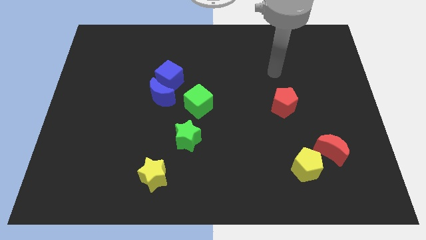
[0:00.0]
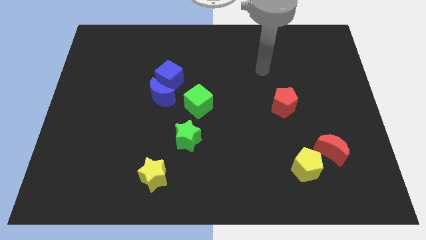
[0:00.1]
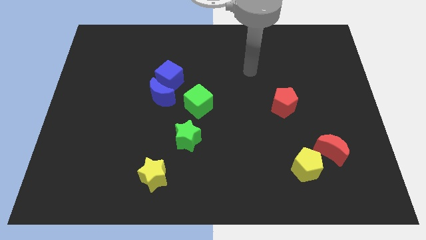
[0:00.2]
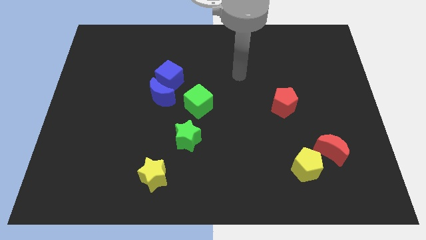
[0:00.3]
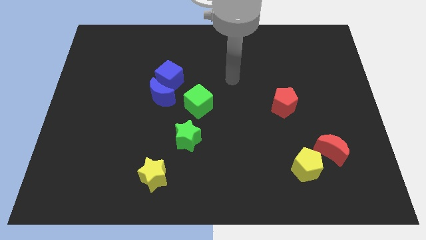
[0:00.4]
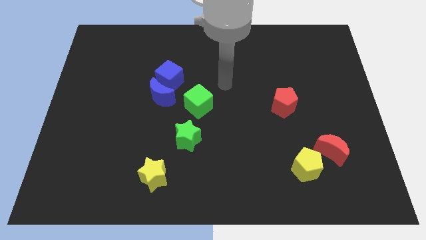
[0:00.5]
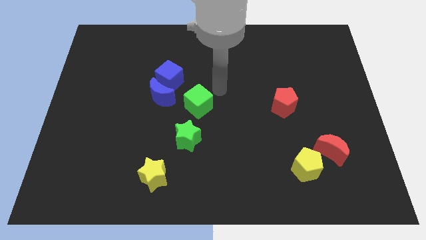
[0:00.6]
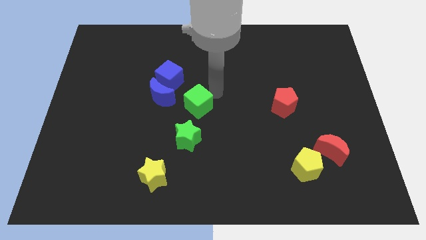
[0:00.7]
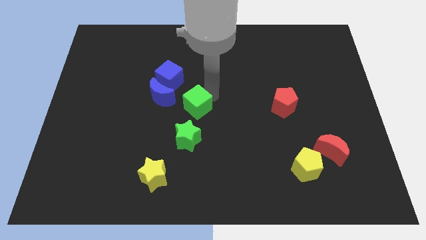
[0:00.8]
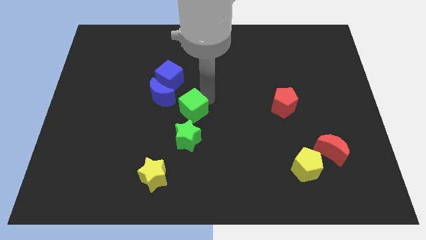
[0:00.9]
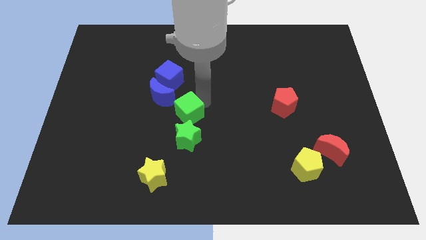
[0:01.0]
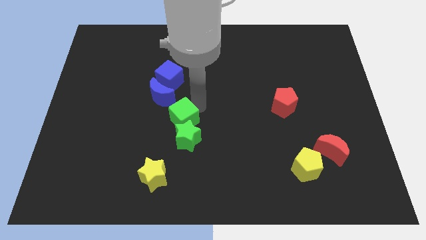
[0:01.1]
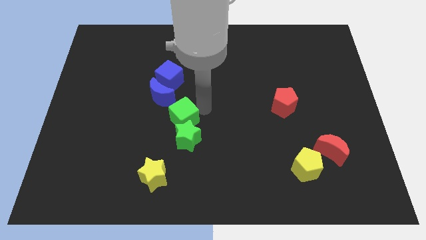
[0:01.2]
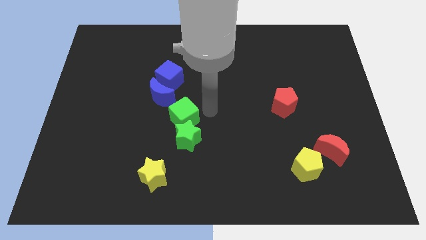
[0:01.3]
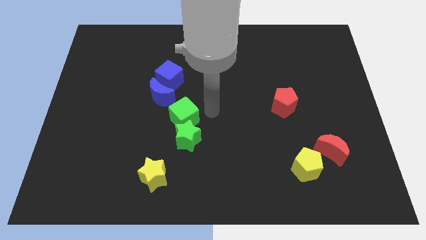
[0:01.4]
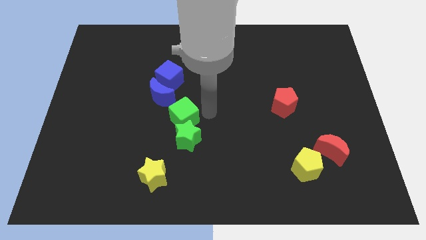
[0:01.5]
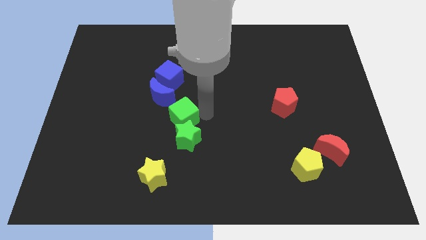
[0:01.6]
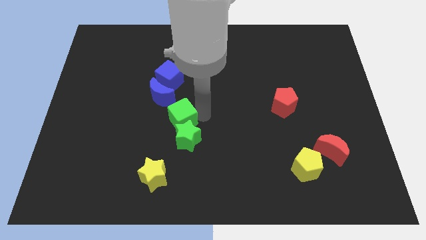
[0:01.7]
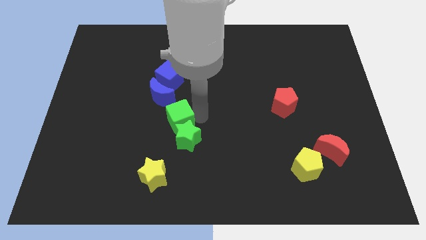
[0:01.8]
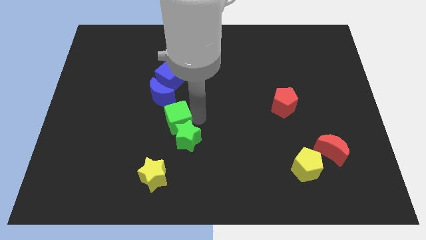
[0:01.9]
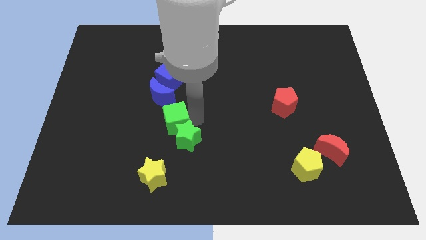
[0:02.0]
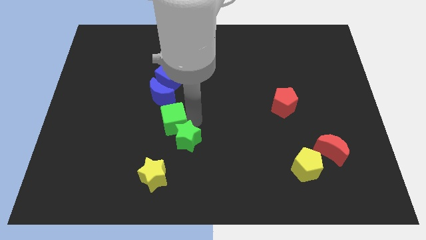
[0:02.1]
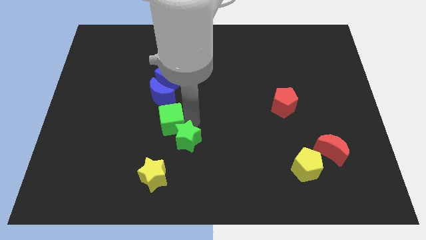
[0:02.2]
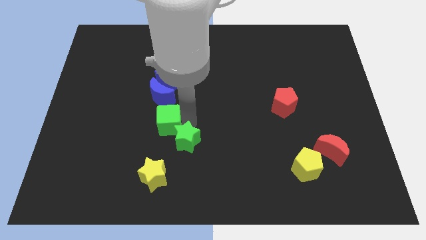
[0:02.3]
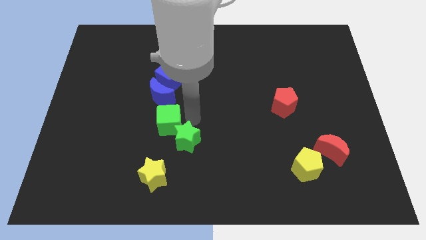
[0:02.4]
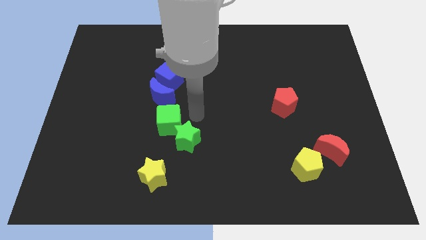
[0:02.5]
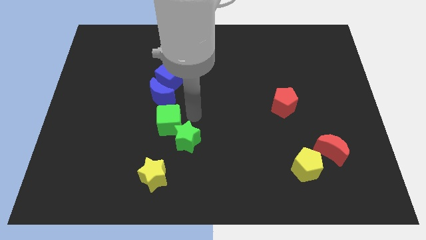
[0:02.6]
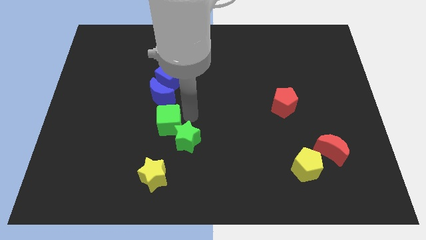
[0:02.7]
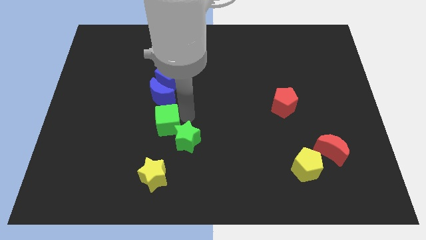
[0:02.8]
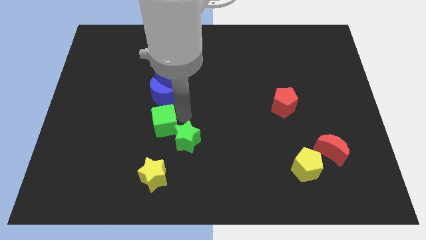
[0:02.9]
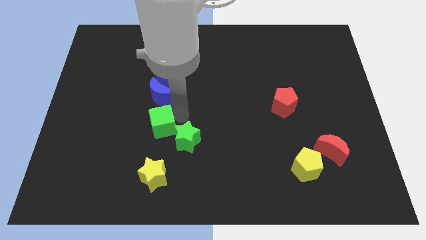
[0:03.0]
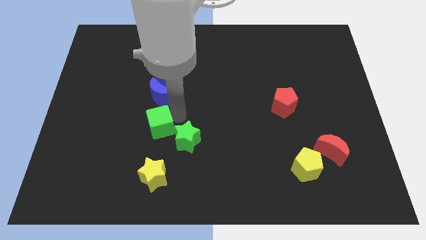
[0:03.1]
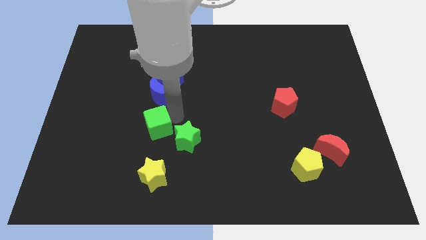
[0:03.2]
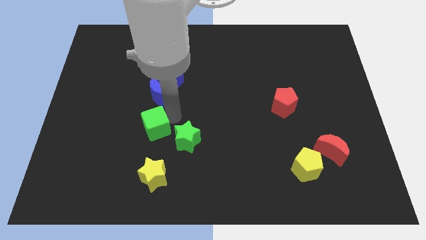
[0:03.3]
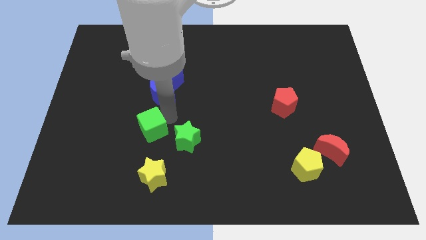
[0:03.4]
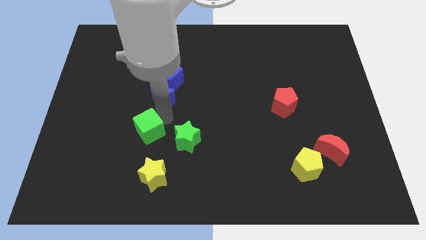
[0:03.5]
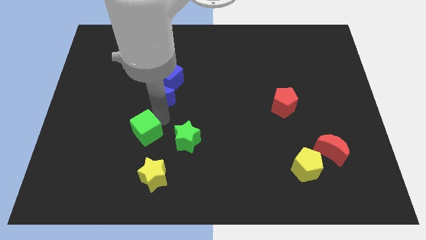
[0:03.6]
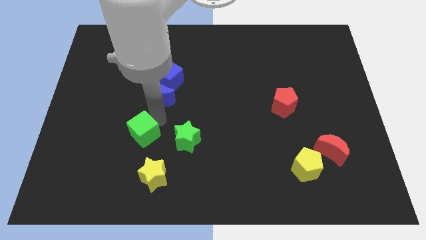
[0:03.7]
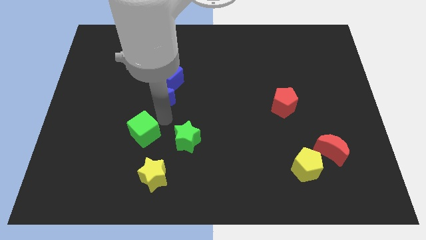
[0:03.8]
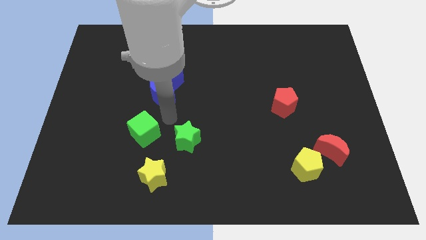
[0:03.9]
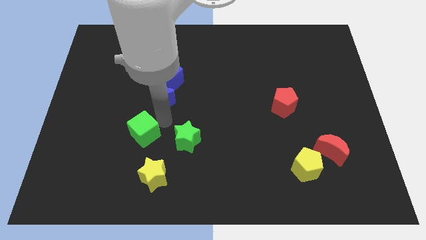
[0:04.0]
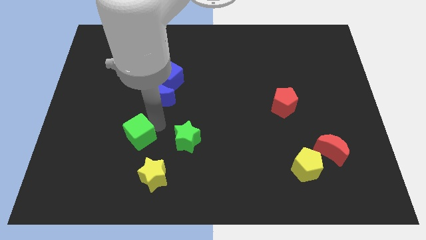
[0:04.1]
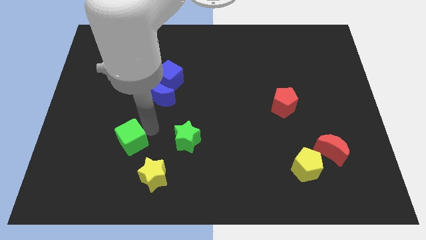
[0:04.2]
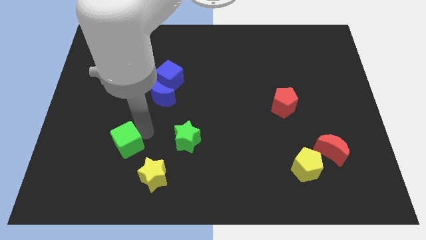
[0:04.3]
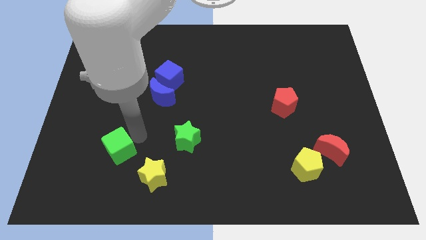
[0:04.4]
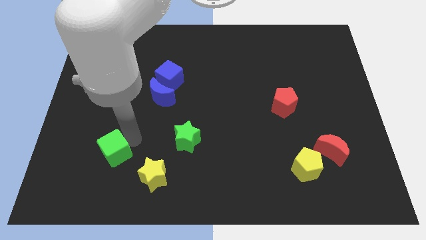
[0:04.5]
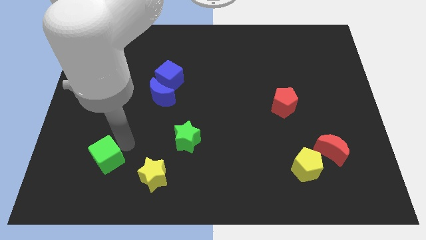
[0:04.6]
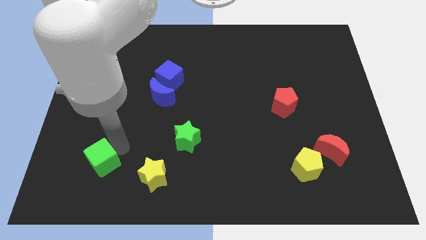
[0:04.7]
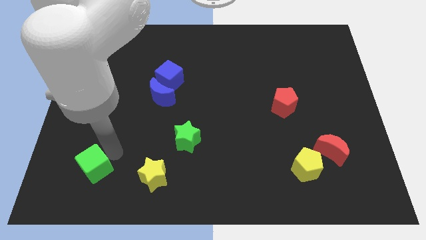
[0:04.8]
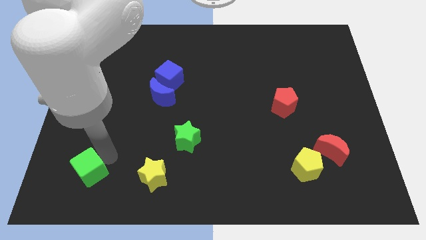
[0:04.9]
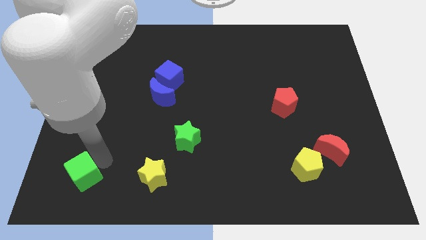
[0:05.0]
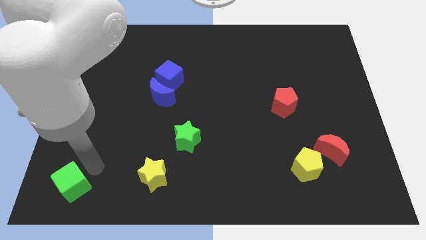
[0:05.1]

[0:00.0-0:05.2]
slide the green cube to the bottom left of the board

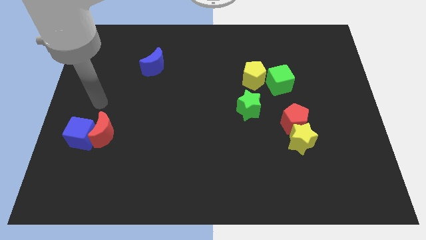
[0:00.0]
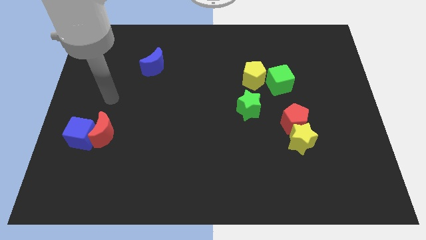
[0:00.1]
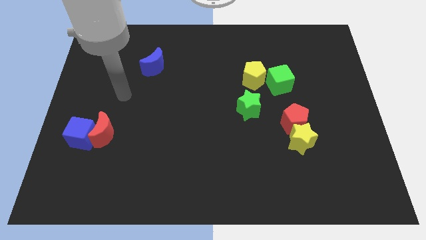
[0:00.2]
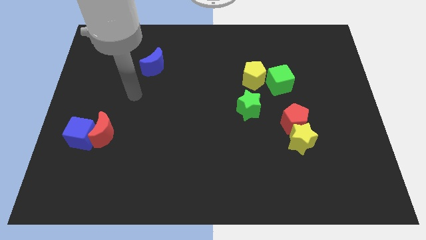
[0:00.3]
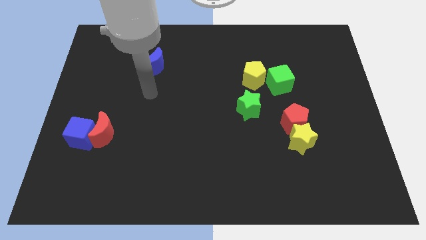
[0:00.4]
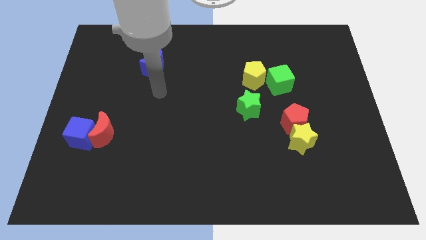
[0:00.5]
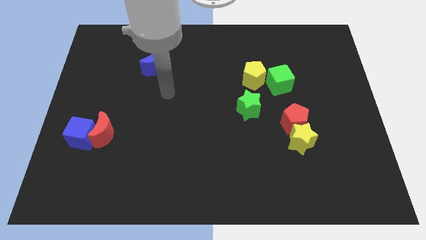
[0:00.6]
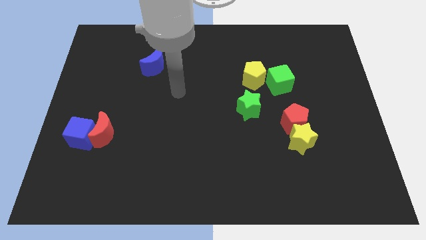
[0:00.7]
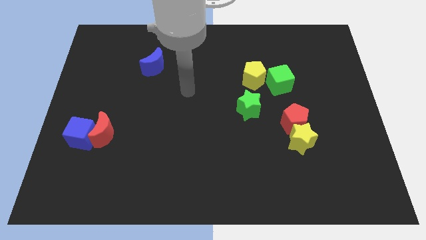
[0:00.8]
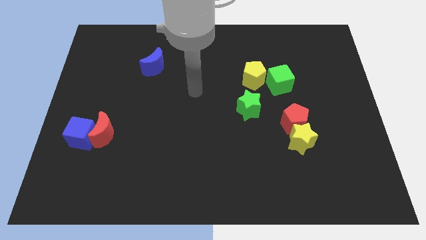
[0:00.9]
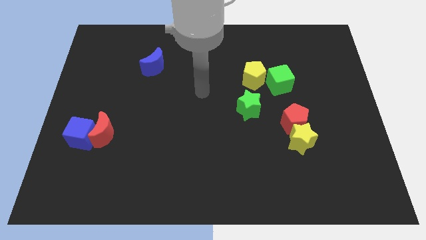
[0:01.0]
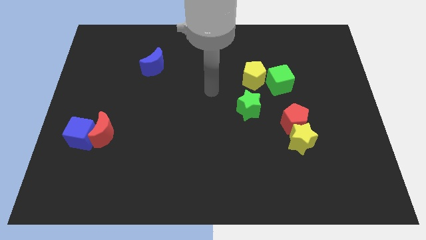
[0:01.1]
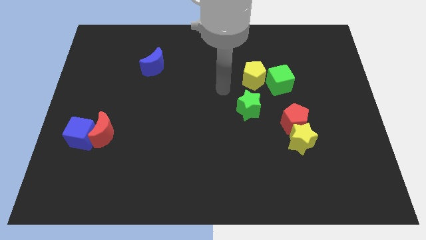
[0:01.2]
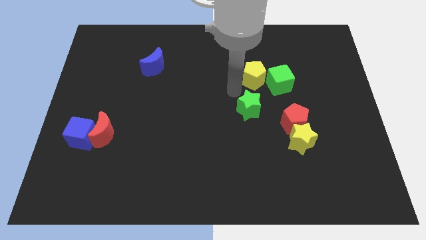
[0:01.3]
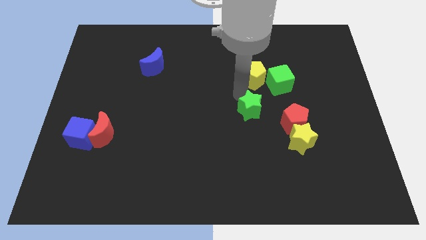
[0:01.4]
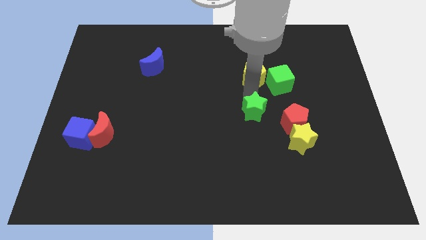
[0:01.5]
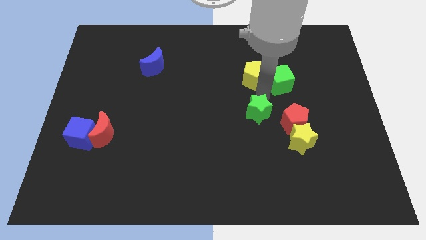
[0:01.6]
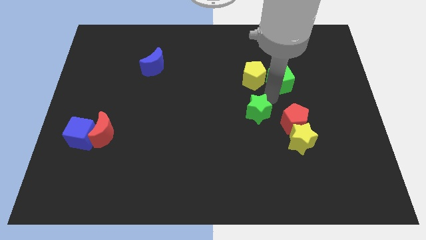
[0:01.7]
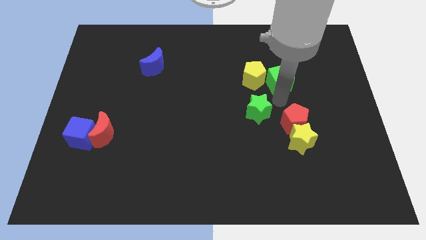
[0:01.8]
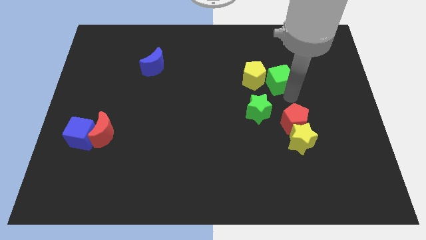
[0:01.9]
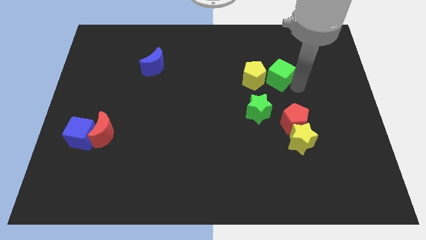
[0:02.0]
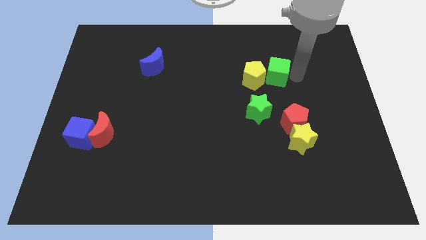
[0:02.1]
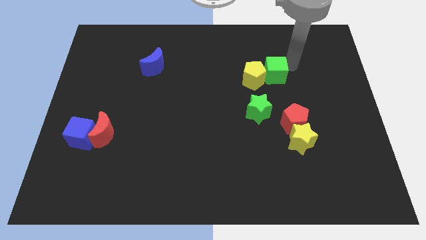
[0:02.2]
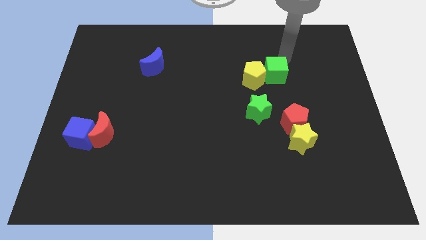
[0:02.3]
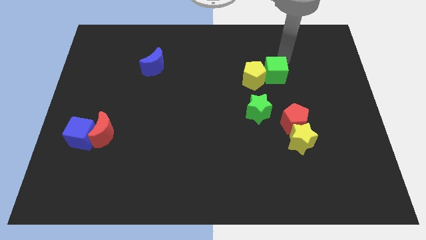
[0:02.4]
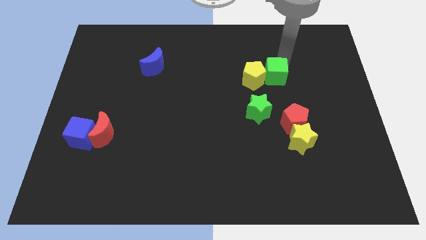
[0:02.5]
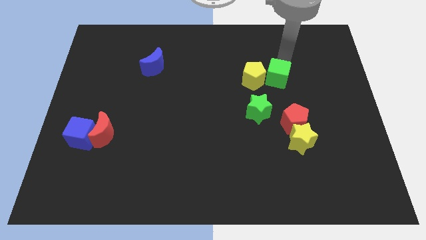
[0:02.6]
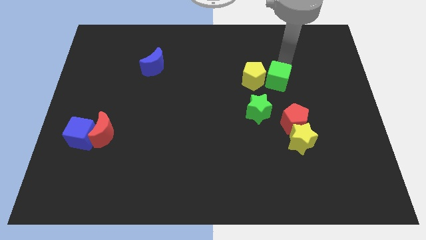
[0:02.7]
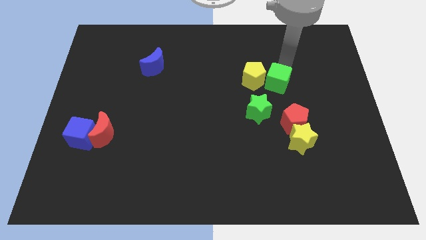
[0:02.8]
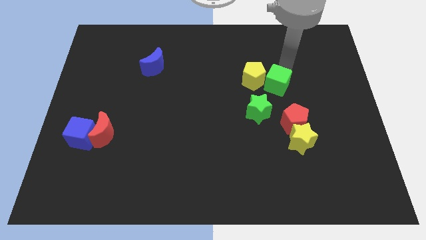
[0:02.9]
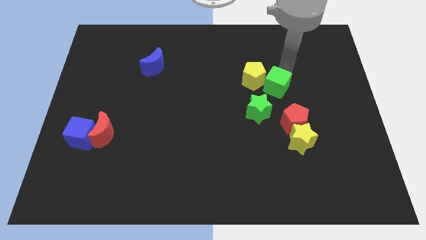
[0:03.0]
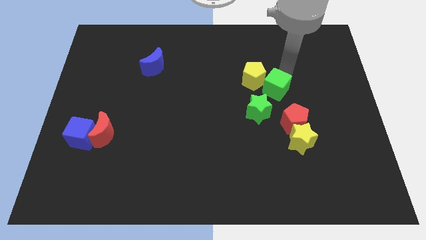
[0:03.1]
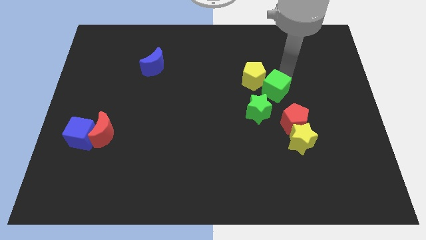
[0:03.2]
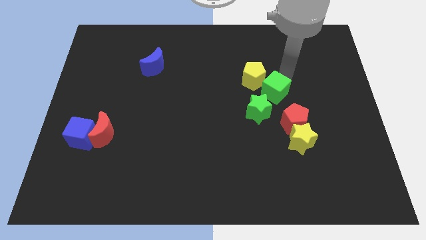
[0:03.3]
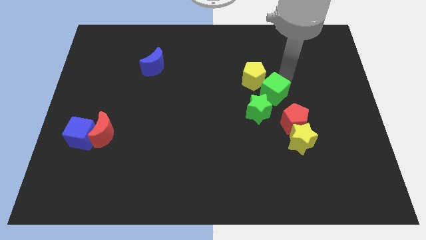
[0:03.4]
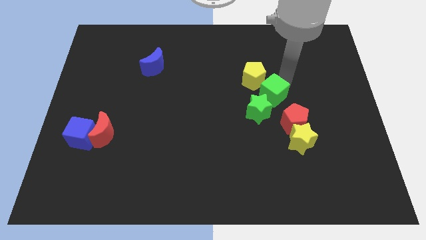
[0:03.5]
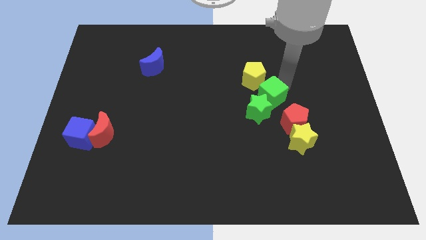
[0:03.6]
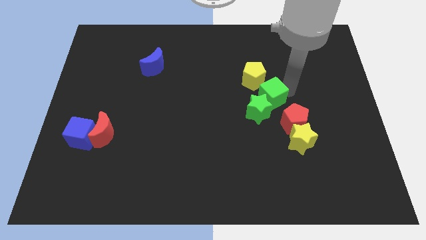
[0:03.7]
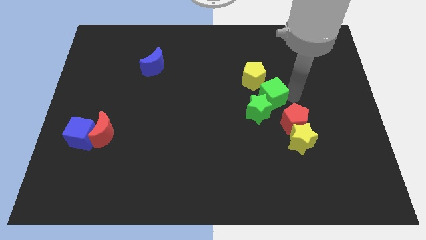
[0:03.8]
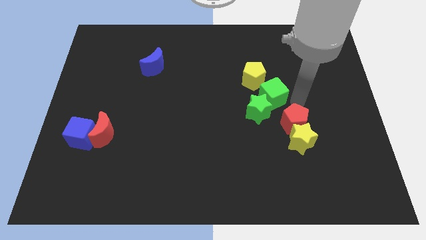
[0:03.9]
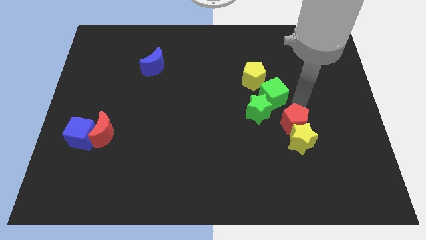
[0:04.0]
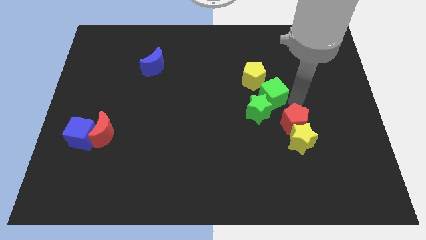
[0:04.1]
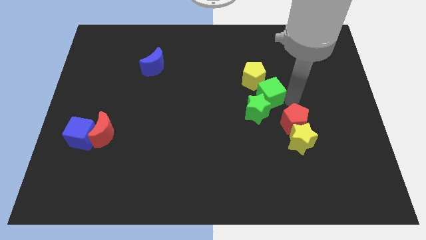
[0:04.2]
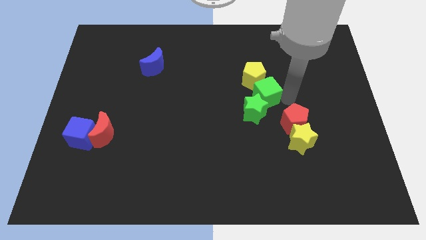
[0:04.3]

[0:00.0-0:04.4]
push the green cube to the middle
